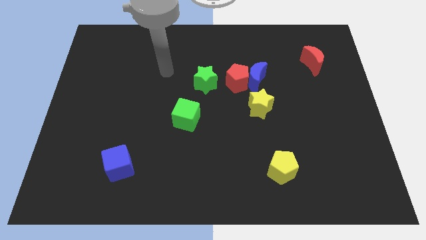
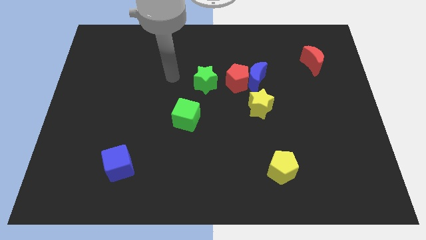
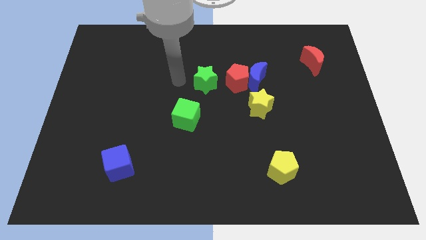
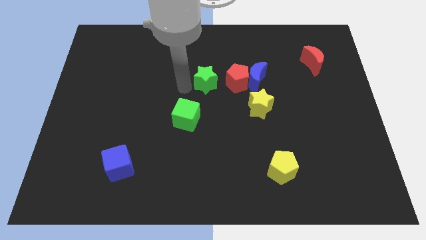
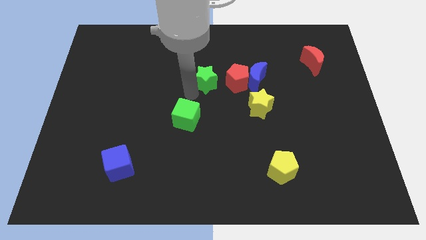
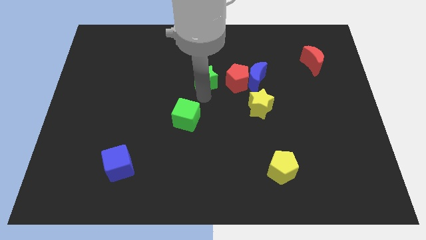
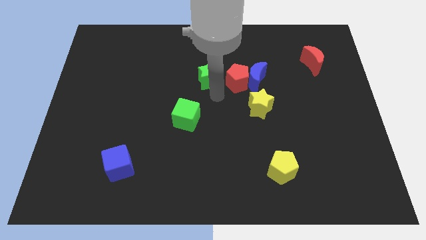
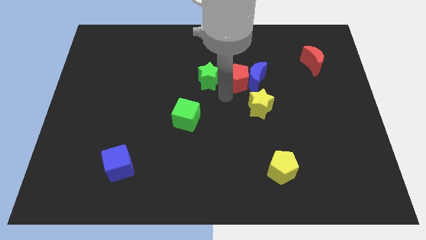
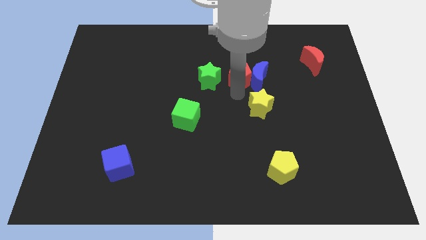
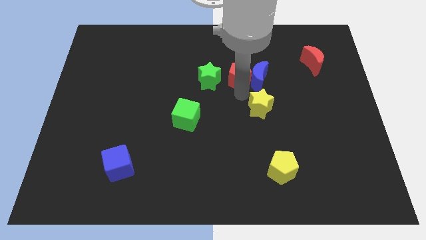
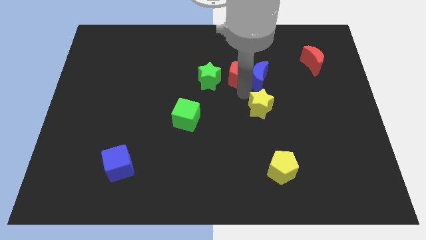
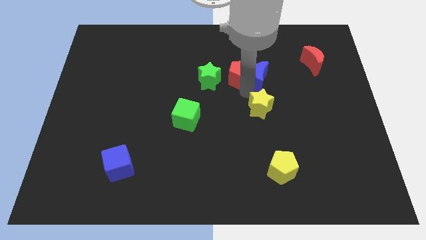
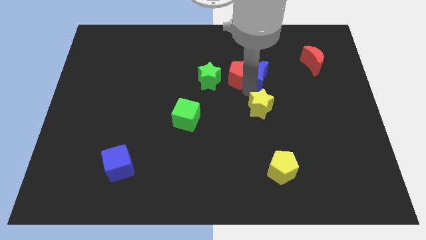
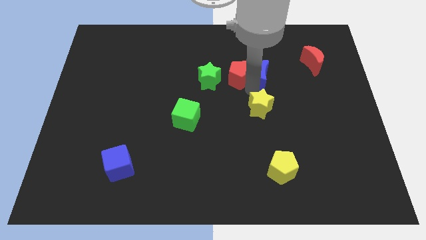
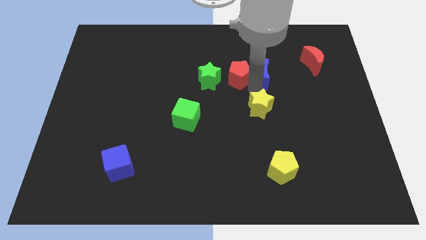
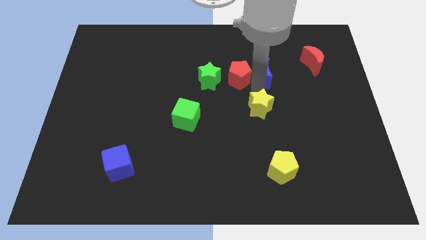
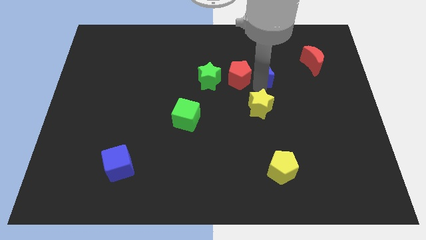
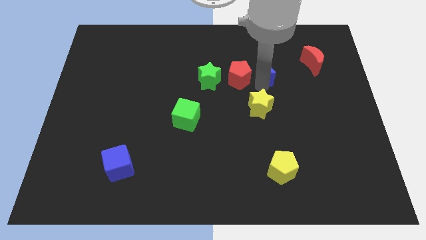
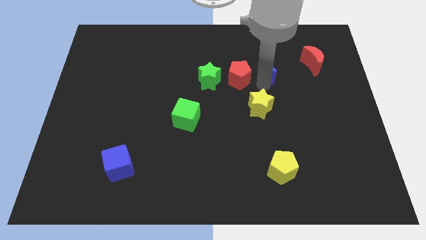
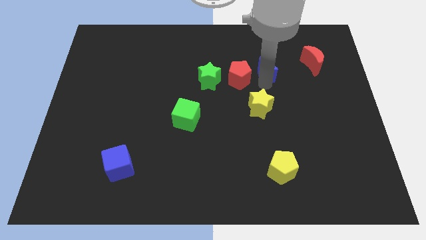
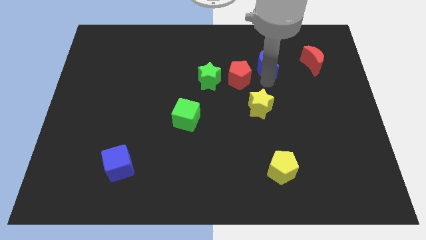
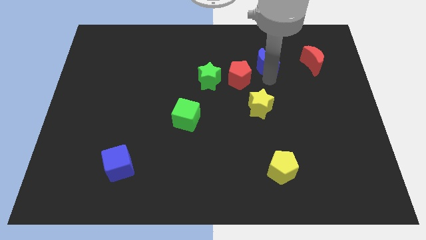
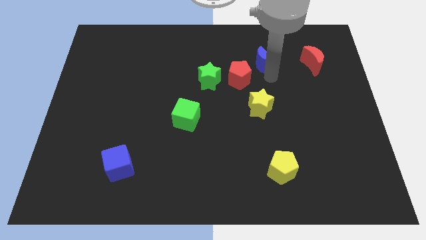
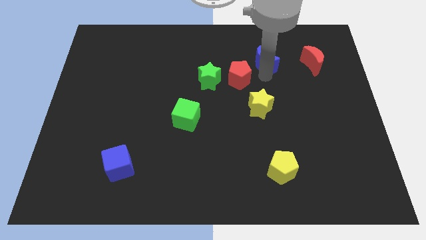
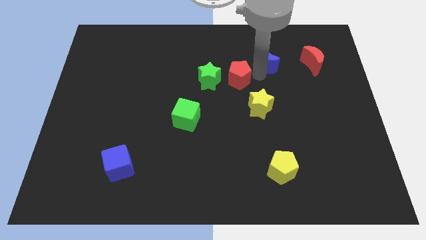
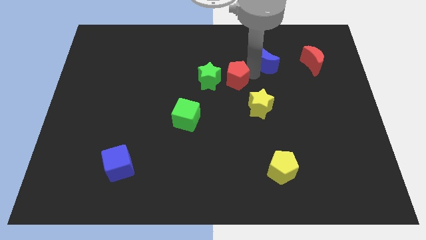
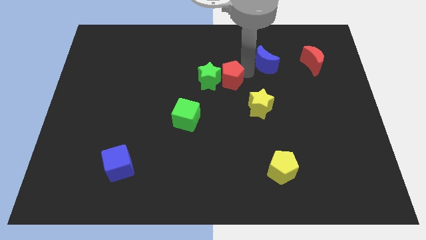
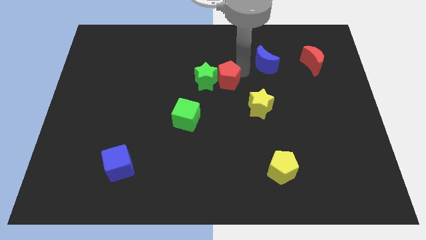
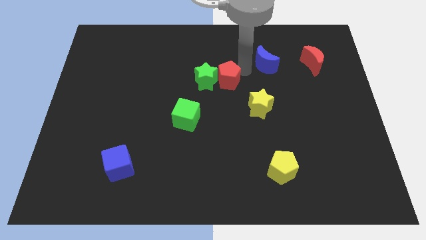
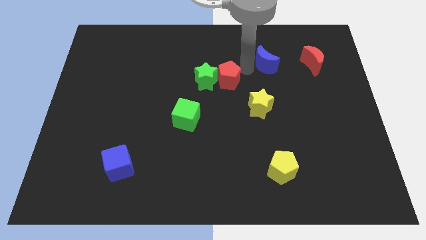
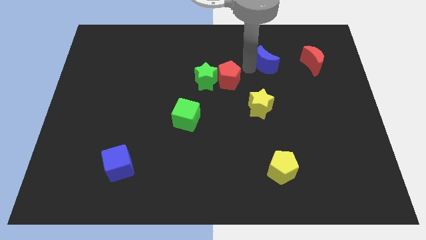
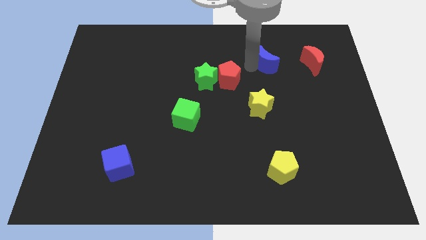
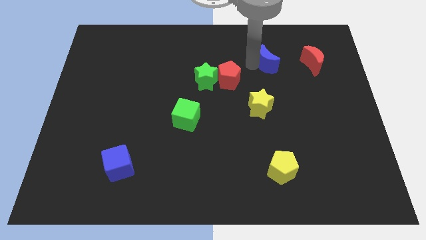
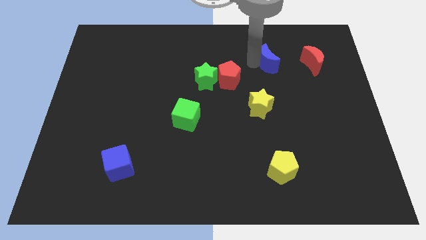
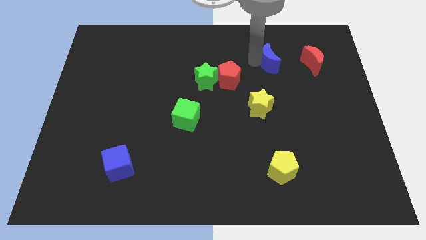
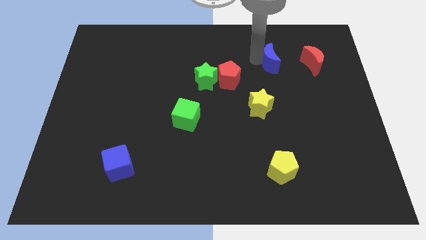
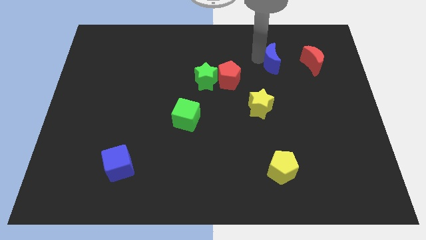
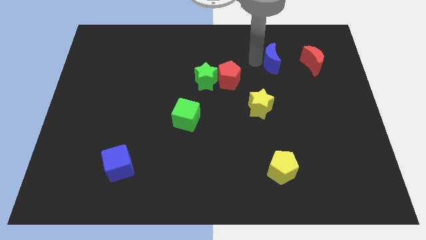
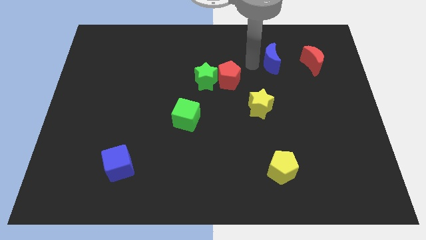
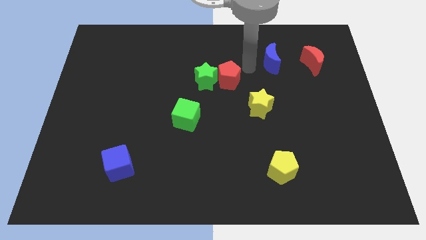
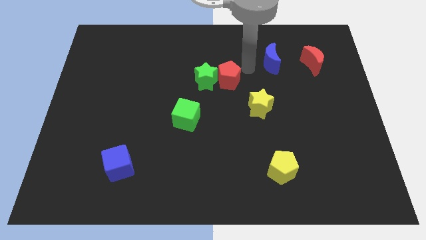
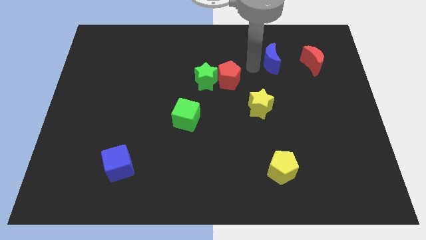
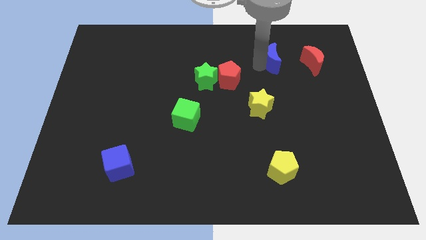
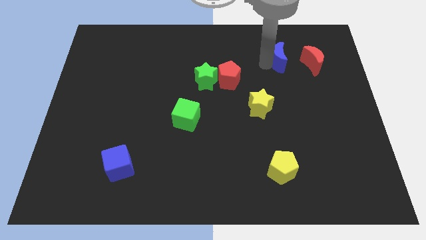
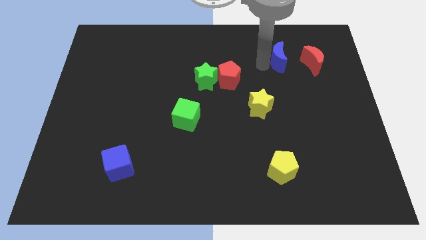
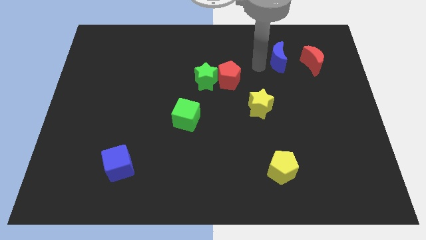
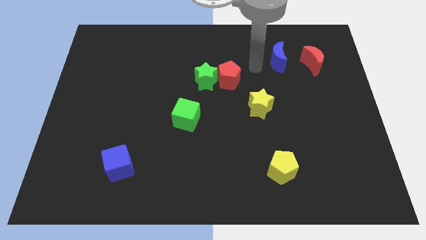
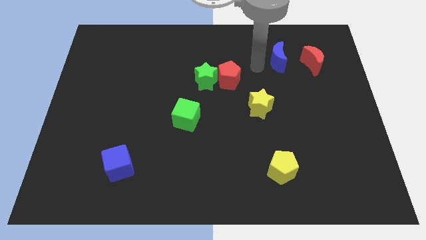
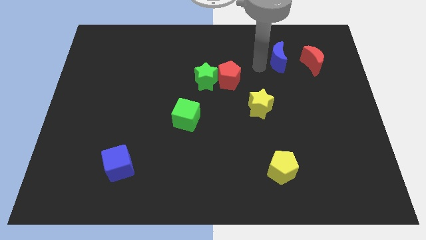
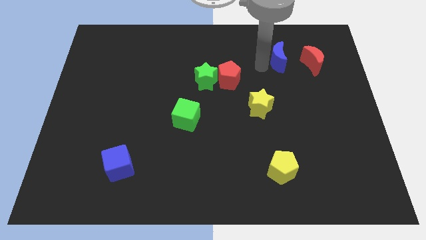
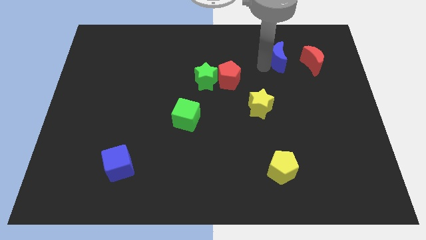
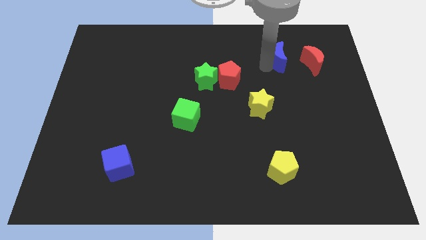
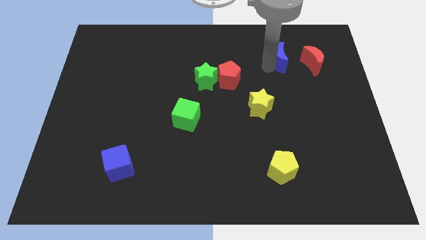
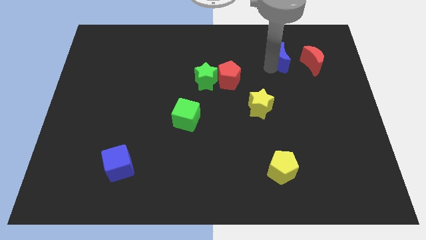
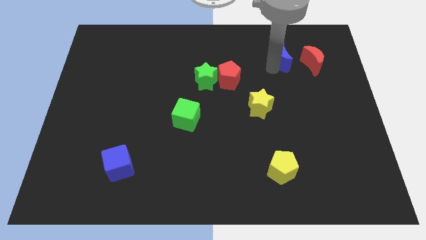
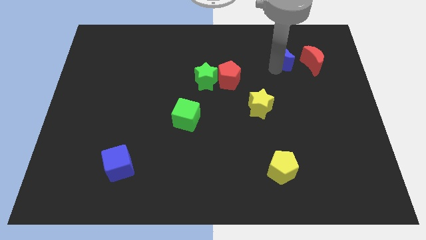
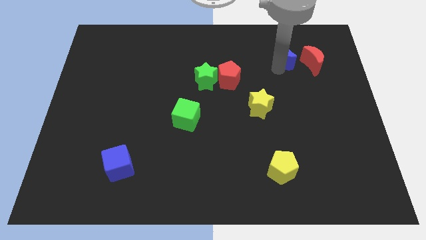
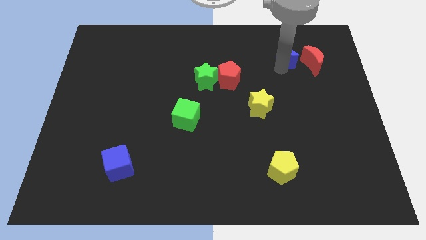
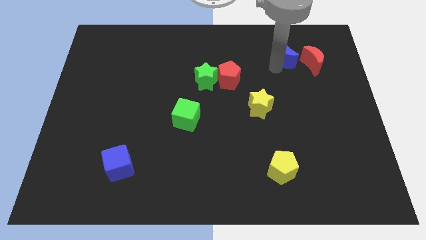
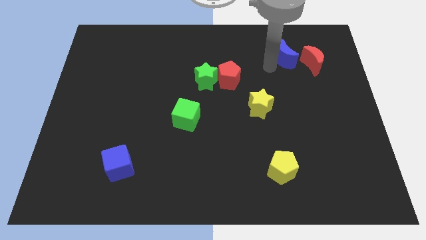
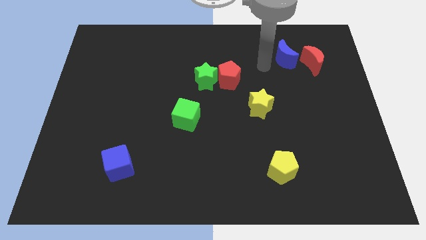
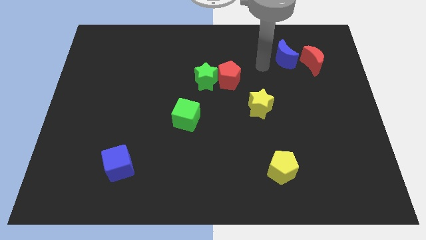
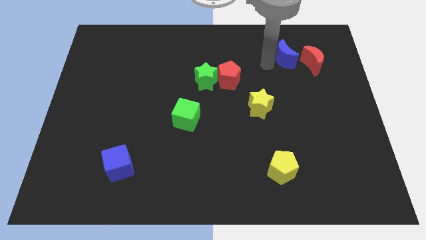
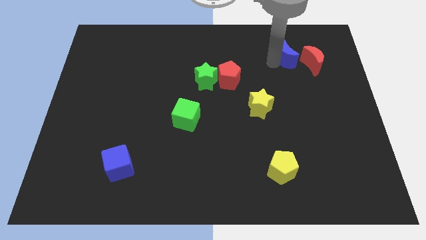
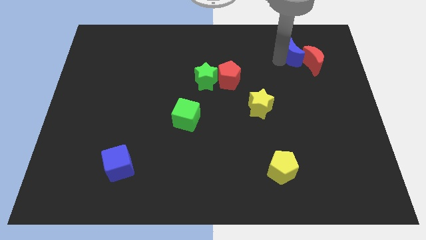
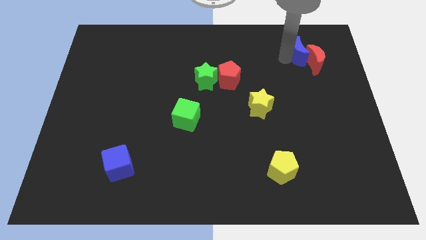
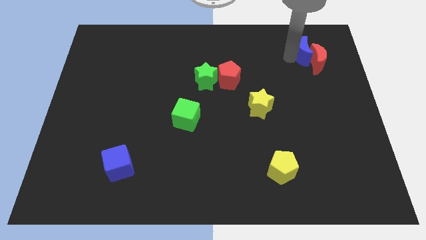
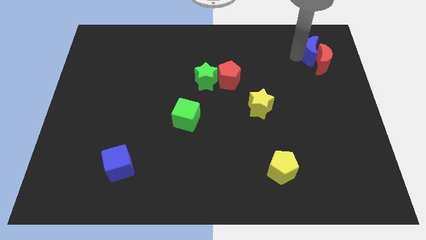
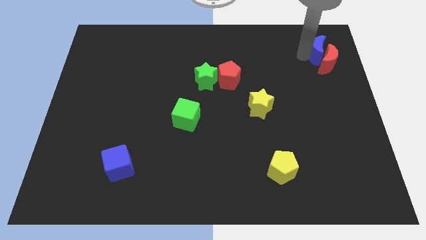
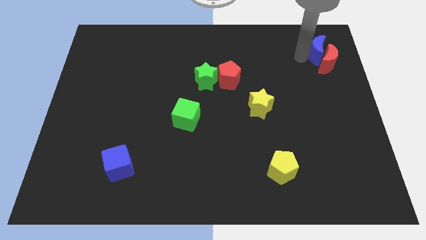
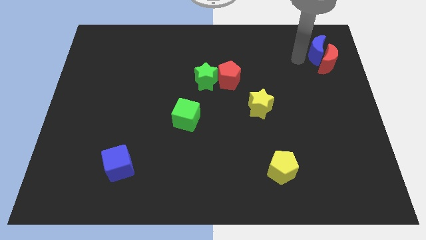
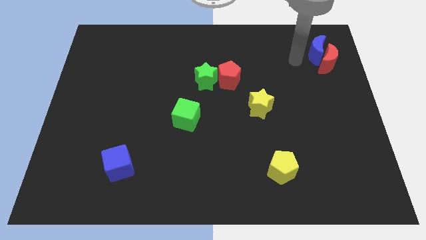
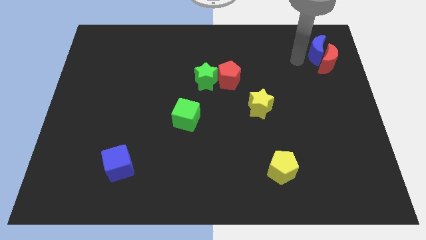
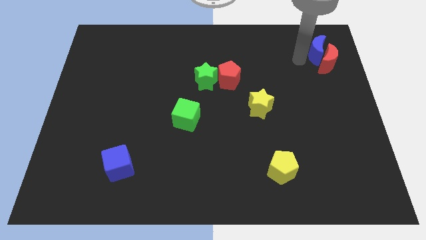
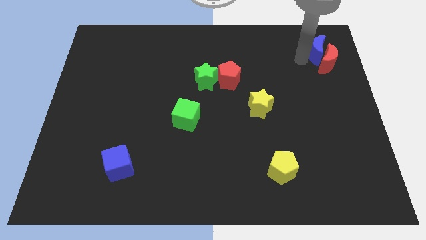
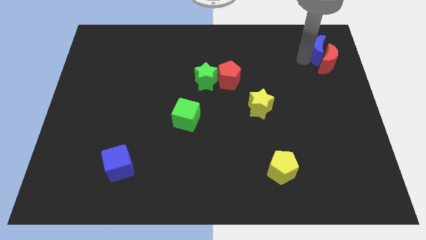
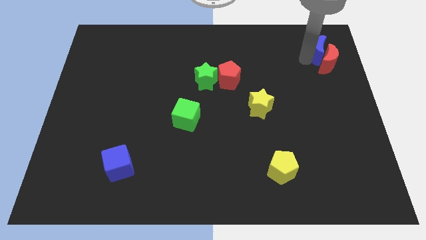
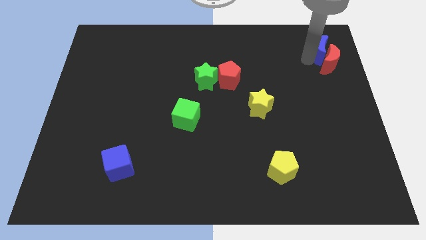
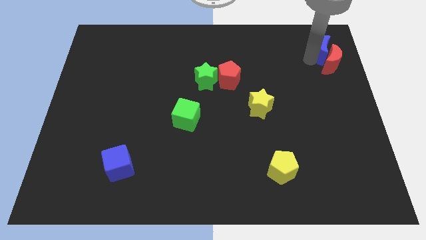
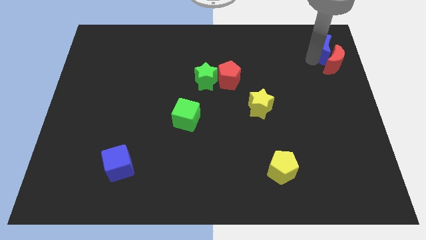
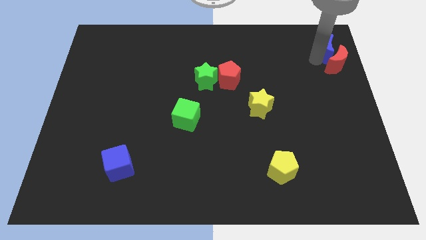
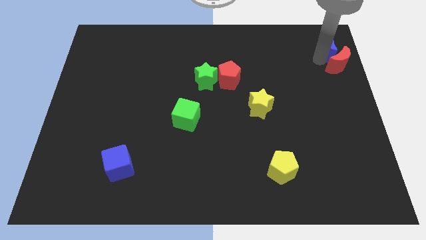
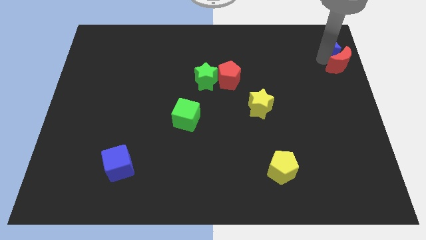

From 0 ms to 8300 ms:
push the blue moon to the top right corner
